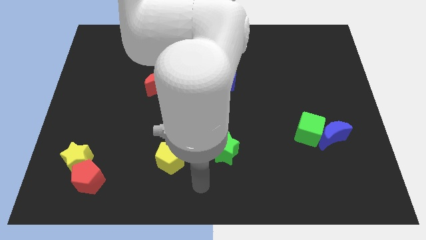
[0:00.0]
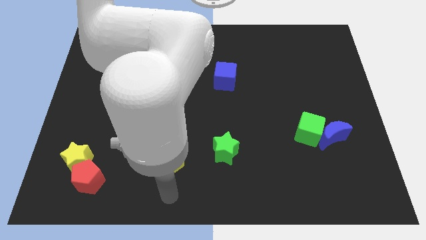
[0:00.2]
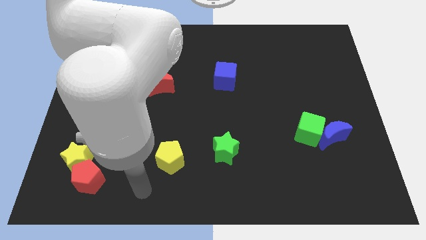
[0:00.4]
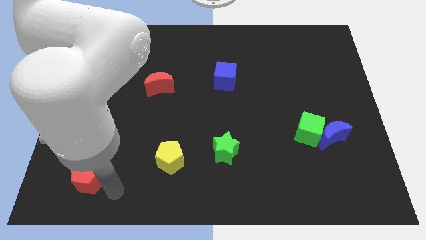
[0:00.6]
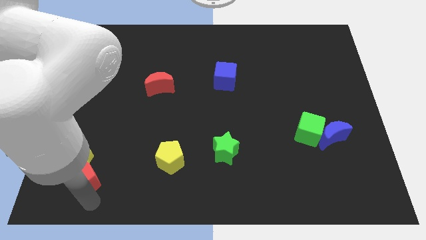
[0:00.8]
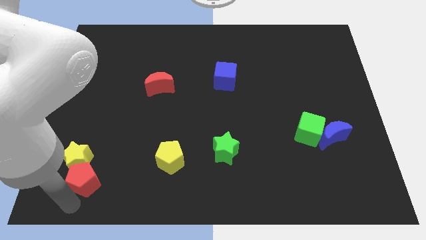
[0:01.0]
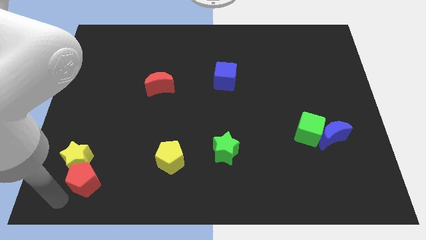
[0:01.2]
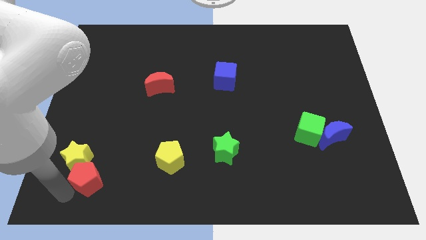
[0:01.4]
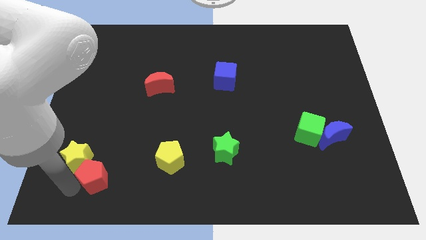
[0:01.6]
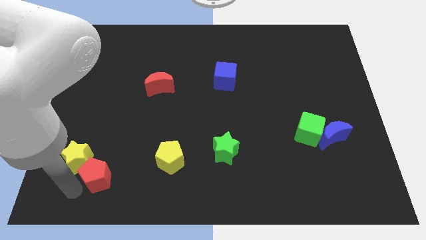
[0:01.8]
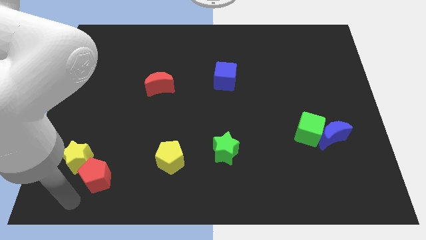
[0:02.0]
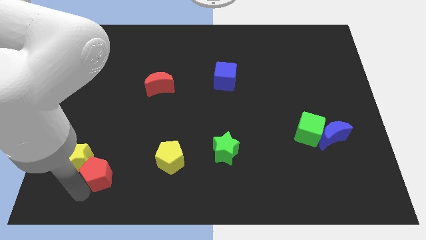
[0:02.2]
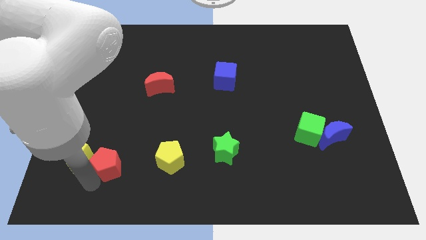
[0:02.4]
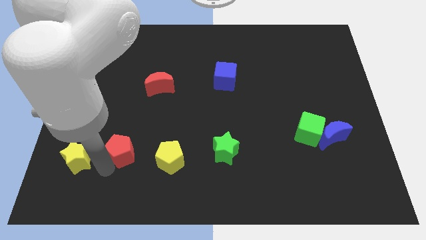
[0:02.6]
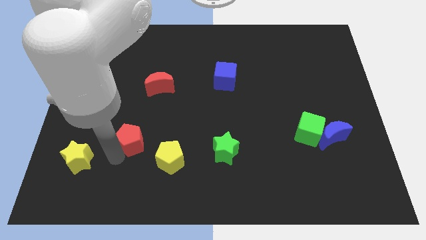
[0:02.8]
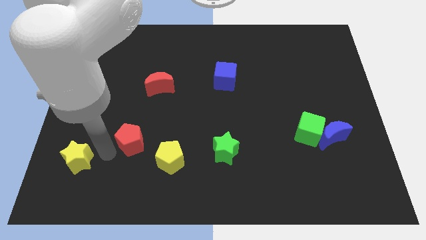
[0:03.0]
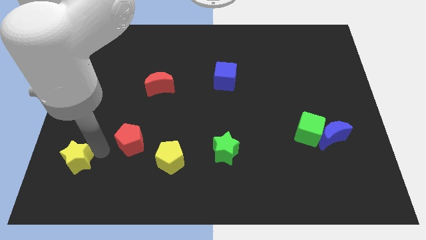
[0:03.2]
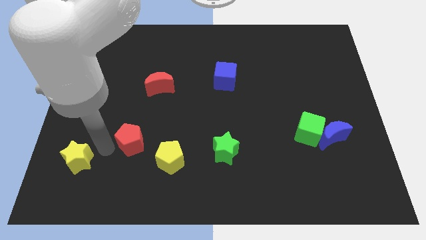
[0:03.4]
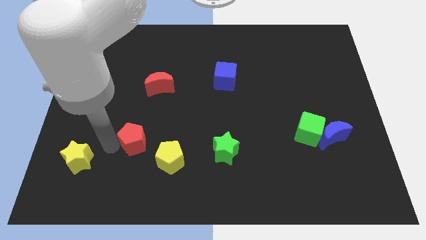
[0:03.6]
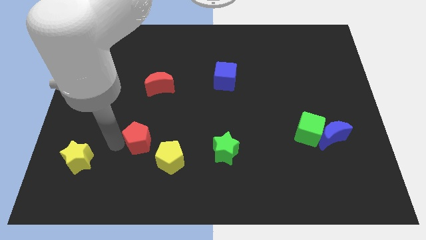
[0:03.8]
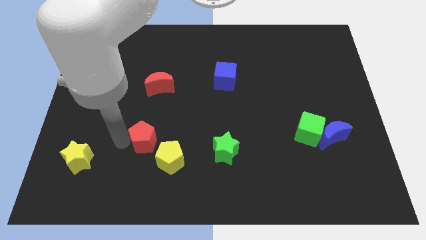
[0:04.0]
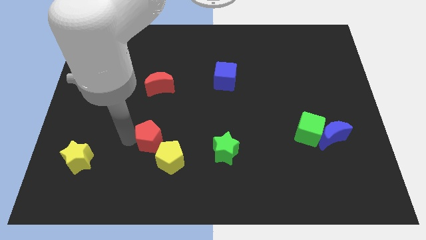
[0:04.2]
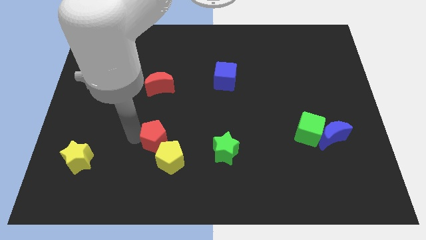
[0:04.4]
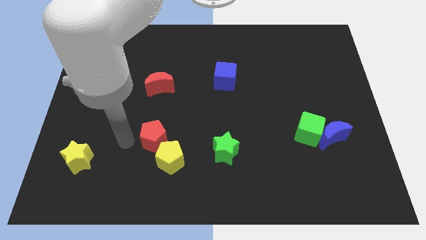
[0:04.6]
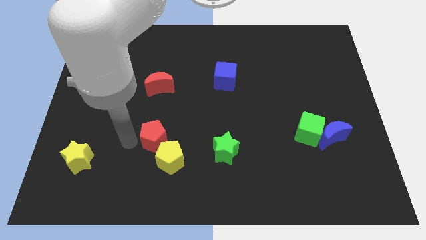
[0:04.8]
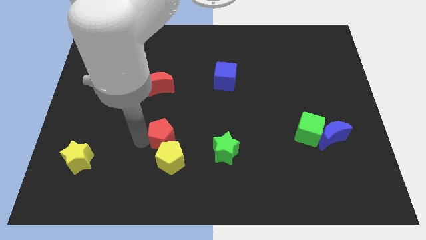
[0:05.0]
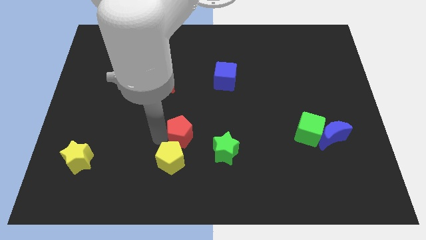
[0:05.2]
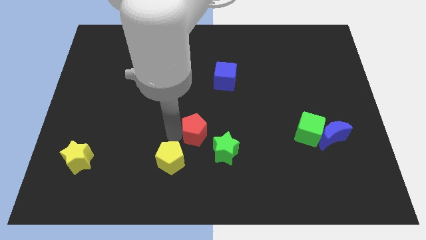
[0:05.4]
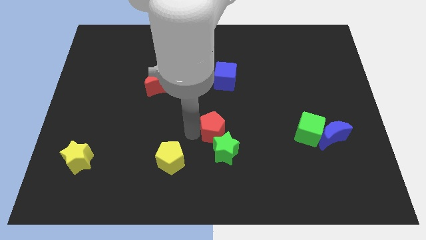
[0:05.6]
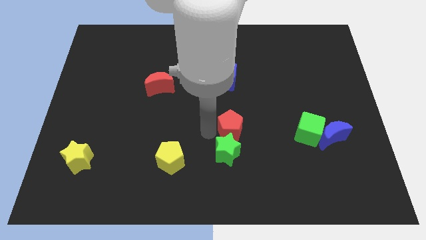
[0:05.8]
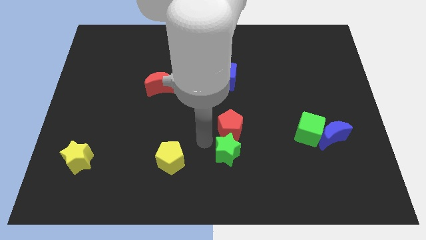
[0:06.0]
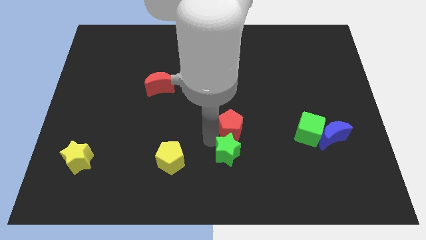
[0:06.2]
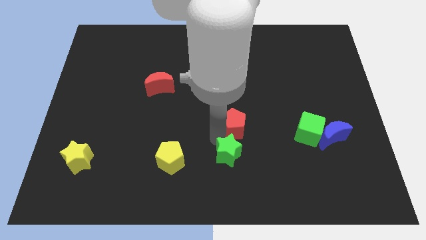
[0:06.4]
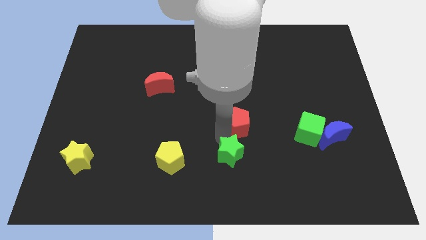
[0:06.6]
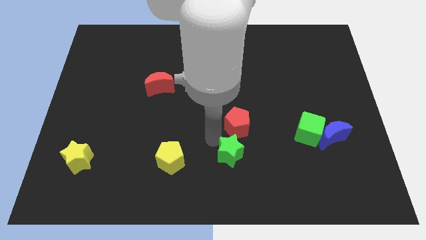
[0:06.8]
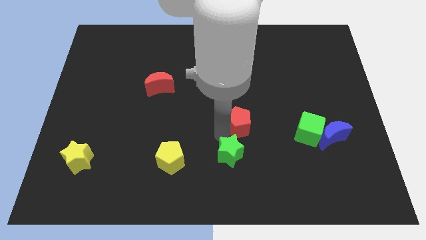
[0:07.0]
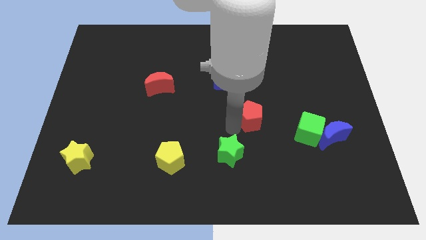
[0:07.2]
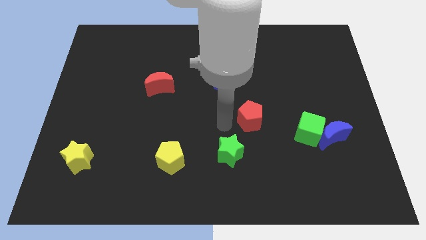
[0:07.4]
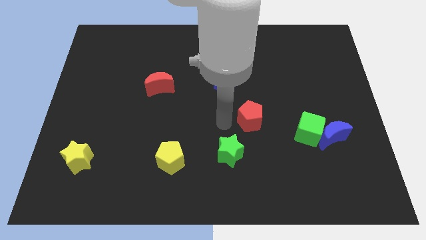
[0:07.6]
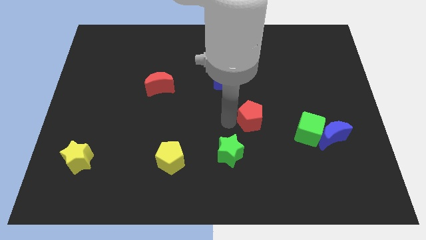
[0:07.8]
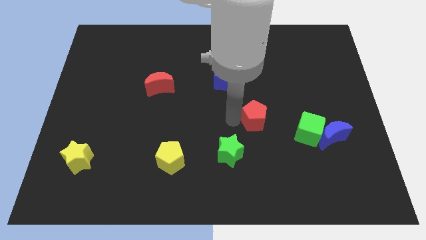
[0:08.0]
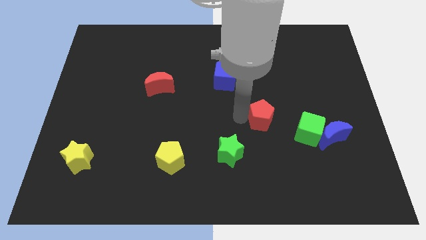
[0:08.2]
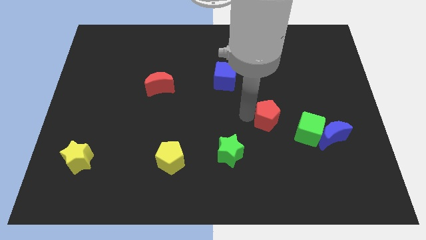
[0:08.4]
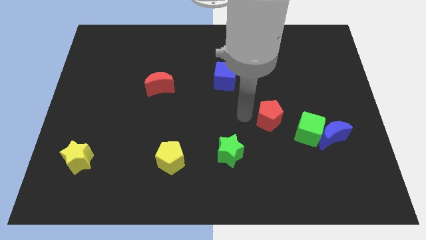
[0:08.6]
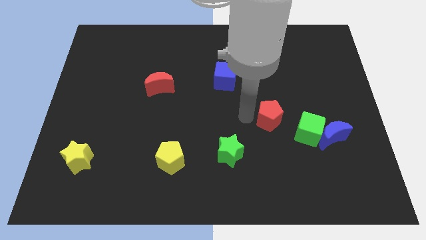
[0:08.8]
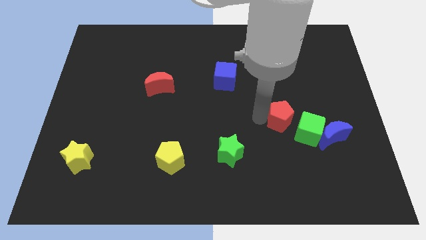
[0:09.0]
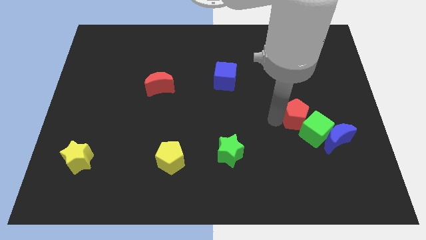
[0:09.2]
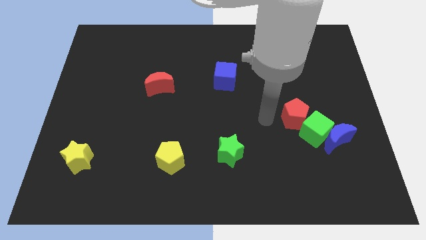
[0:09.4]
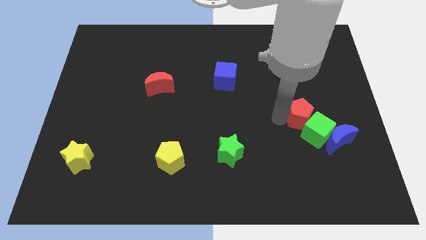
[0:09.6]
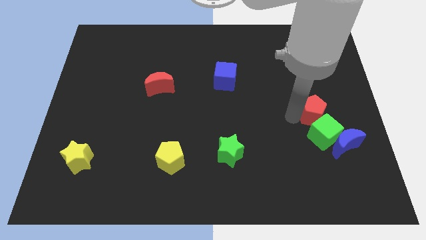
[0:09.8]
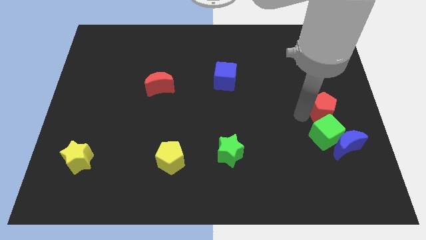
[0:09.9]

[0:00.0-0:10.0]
put the red pentagon to the center right

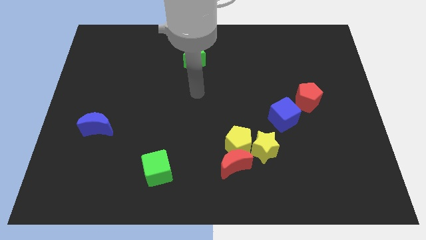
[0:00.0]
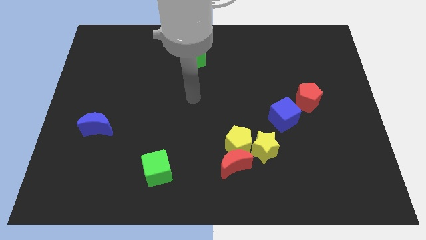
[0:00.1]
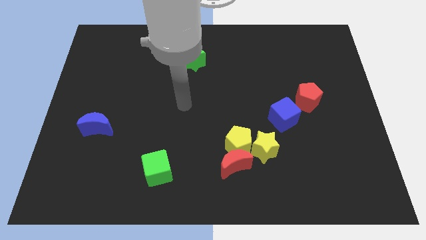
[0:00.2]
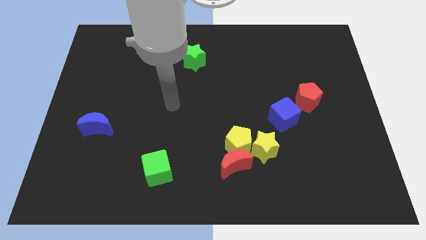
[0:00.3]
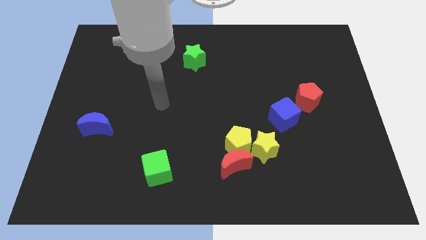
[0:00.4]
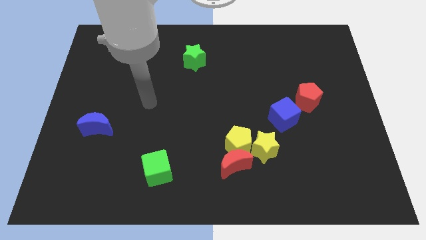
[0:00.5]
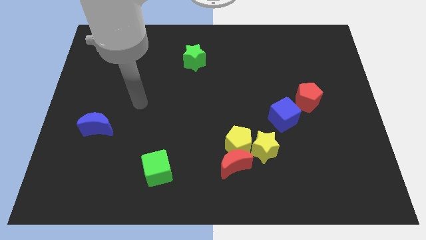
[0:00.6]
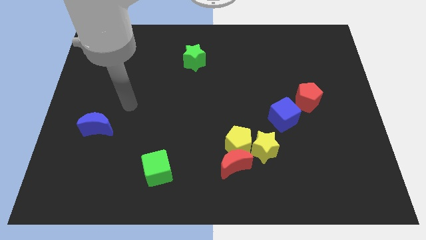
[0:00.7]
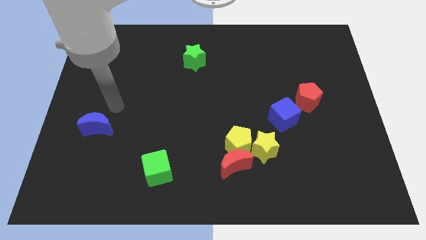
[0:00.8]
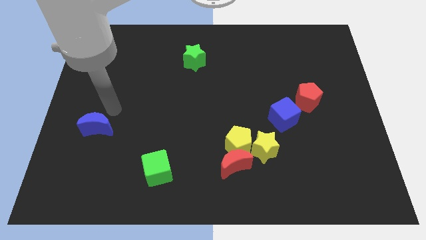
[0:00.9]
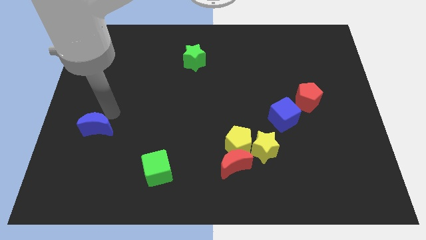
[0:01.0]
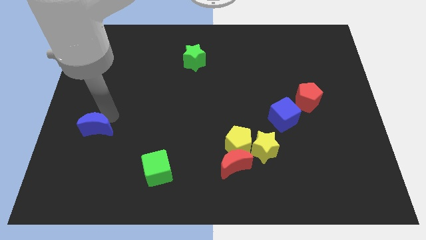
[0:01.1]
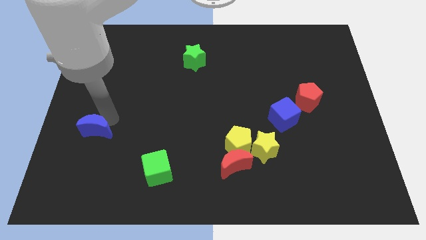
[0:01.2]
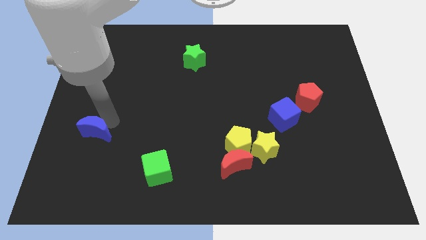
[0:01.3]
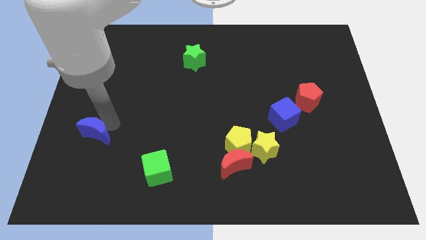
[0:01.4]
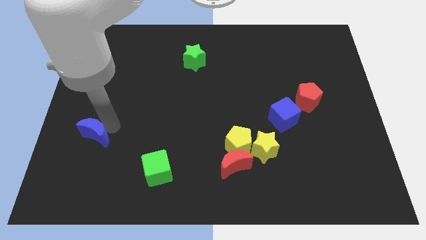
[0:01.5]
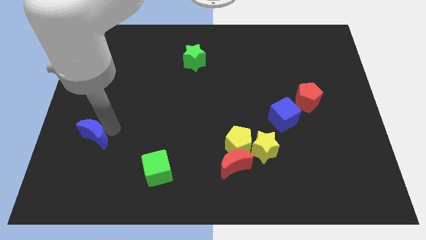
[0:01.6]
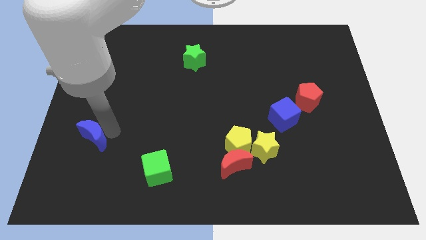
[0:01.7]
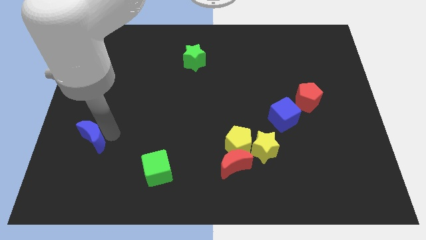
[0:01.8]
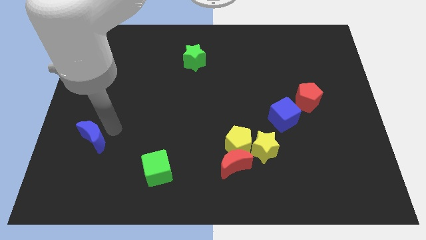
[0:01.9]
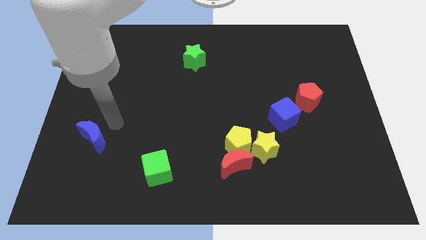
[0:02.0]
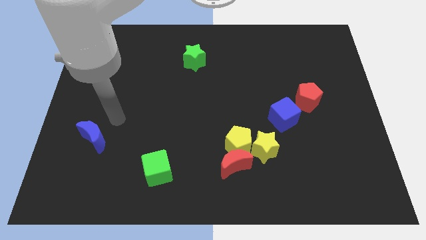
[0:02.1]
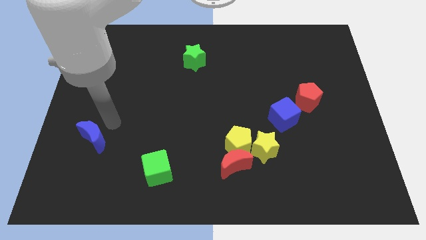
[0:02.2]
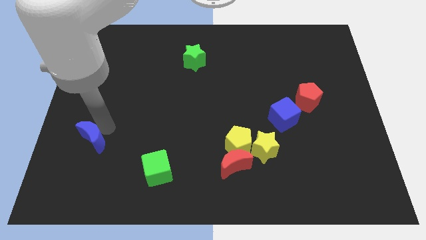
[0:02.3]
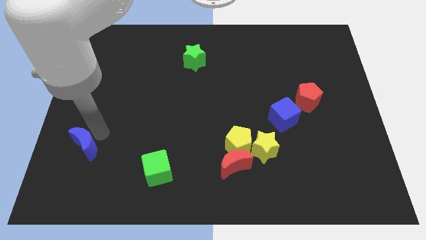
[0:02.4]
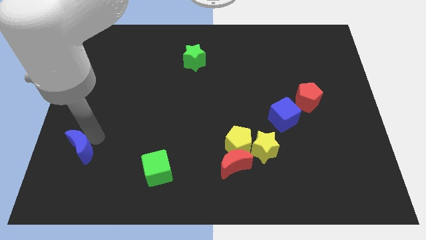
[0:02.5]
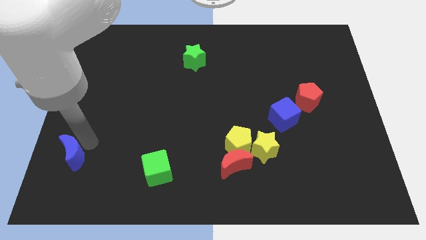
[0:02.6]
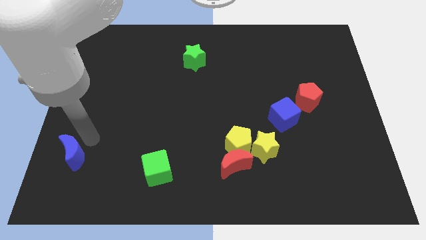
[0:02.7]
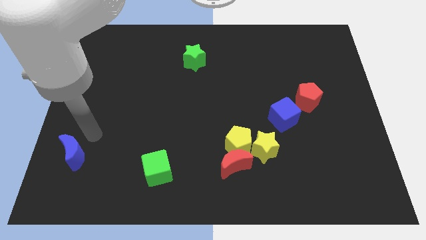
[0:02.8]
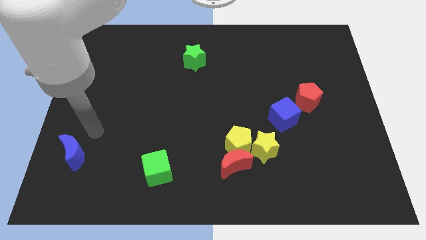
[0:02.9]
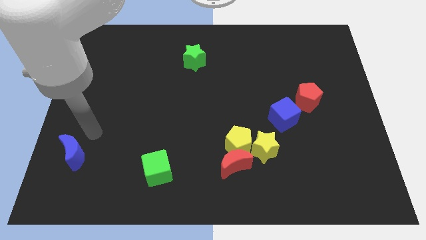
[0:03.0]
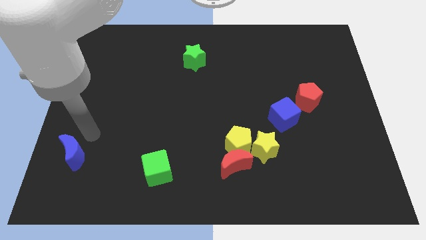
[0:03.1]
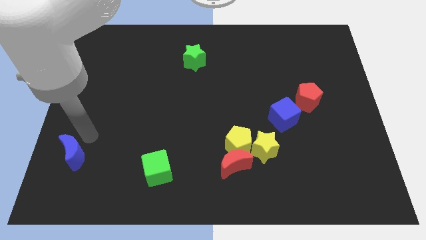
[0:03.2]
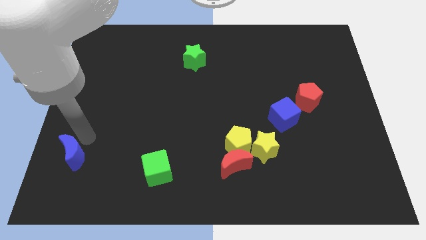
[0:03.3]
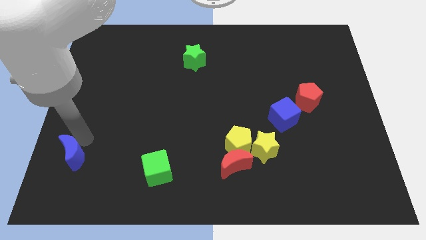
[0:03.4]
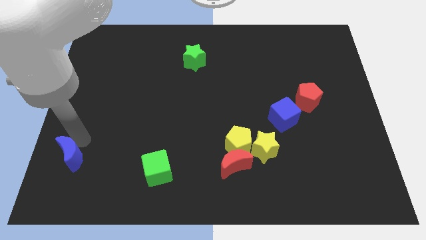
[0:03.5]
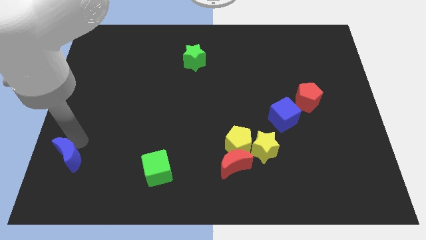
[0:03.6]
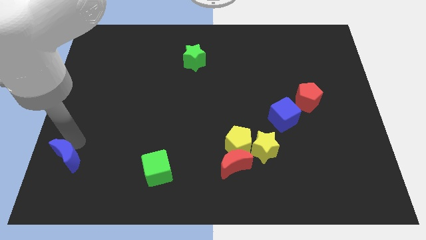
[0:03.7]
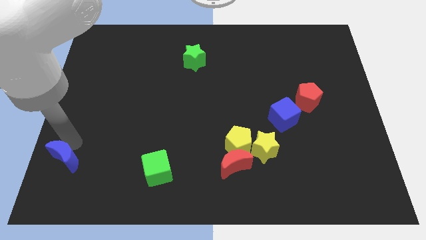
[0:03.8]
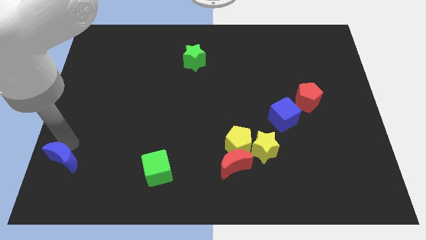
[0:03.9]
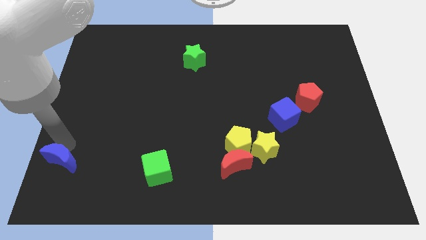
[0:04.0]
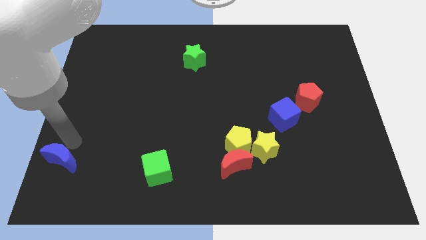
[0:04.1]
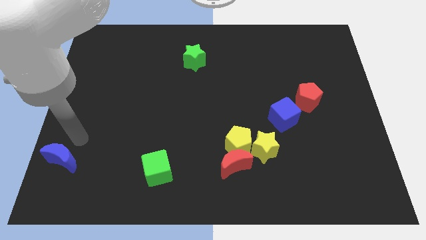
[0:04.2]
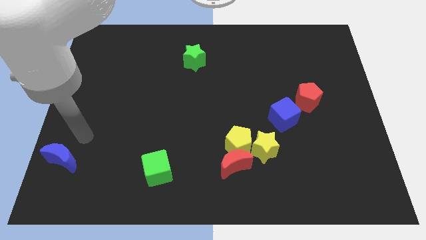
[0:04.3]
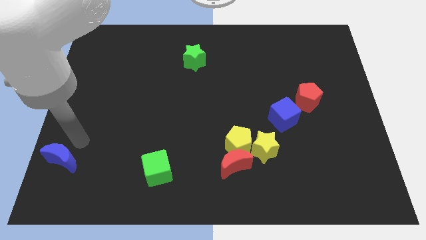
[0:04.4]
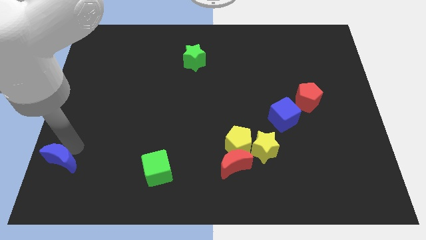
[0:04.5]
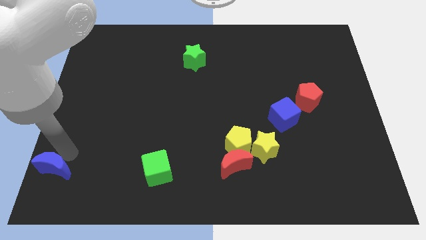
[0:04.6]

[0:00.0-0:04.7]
move the blue moon to the bottom left corner
